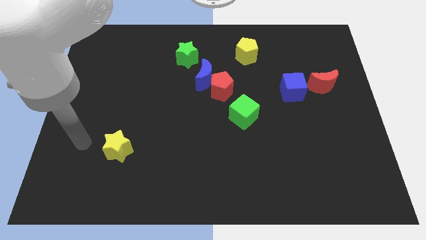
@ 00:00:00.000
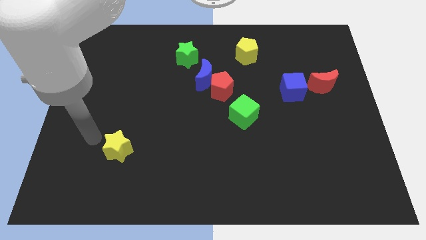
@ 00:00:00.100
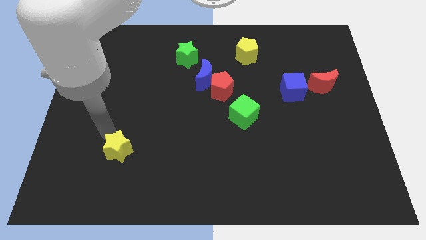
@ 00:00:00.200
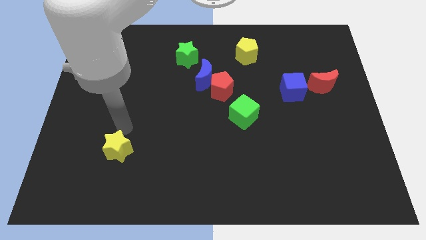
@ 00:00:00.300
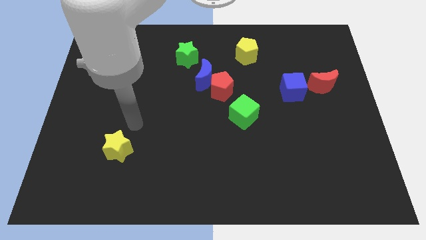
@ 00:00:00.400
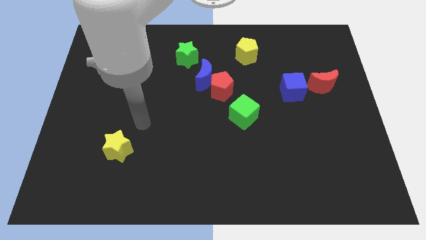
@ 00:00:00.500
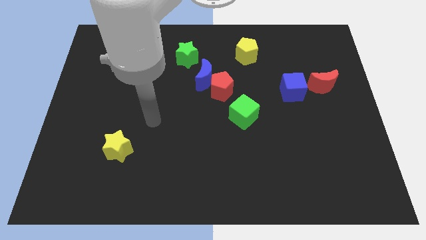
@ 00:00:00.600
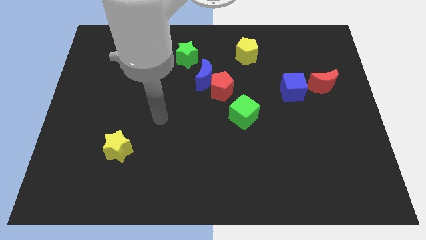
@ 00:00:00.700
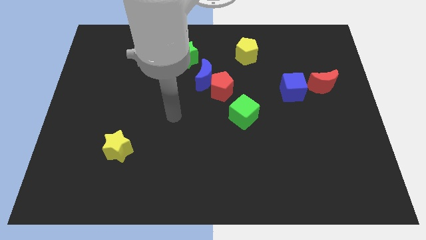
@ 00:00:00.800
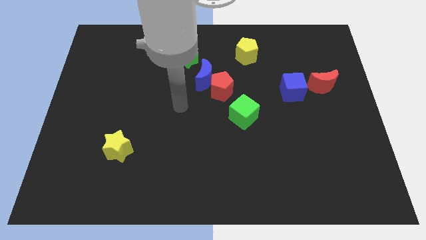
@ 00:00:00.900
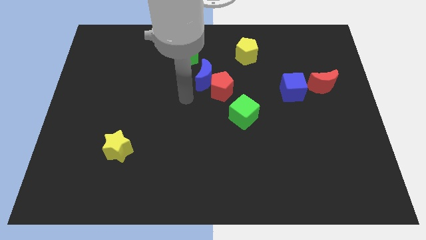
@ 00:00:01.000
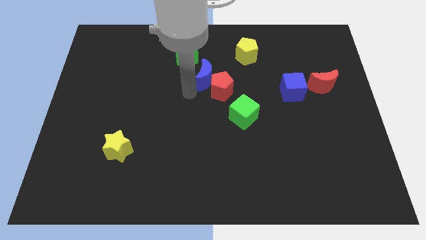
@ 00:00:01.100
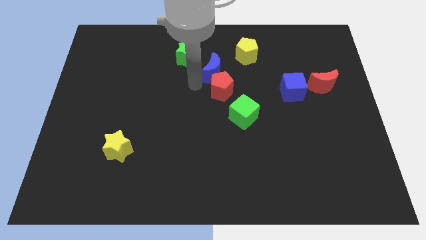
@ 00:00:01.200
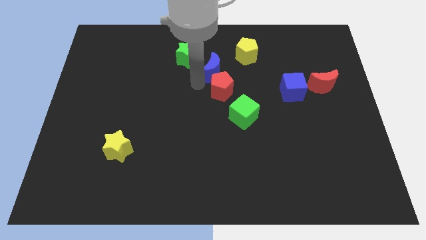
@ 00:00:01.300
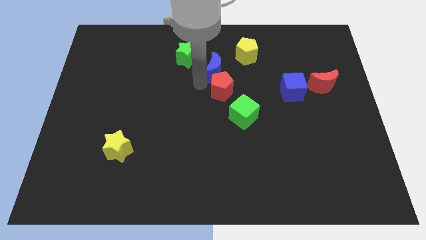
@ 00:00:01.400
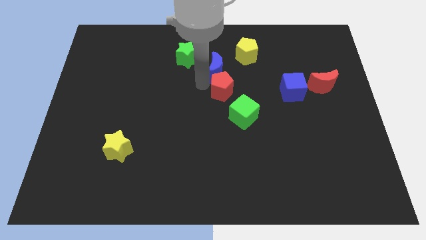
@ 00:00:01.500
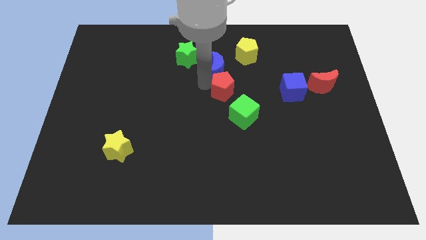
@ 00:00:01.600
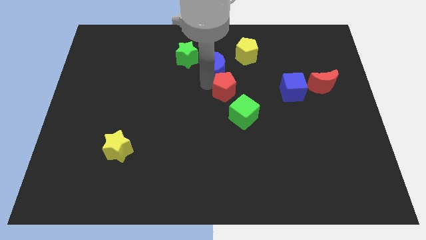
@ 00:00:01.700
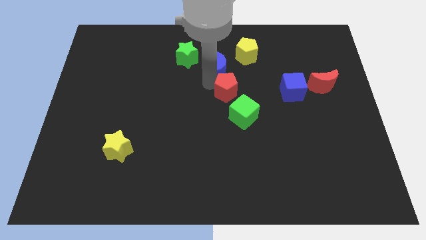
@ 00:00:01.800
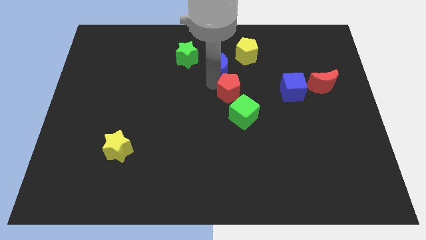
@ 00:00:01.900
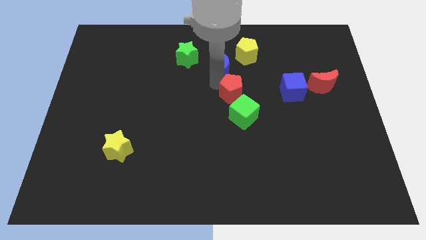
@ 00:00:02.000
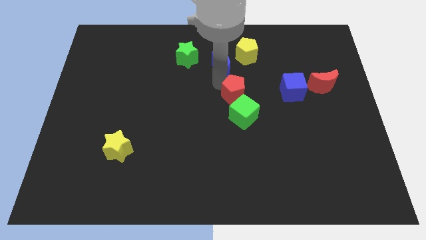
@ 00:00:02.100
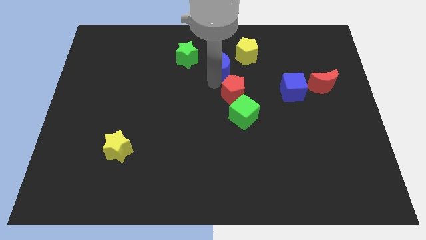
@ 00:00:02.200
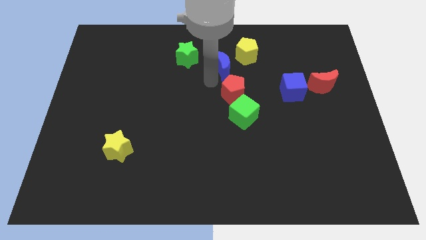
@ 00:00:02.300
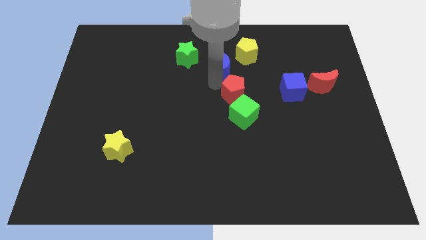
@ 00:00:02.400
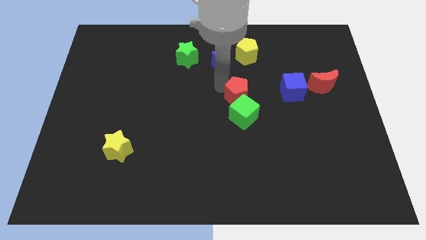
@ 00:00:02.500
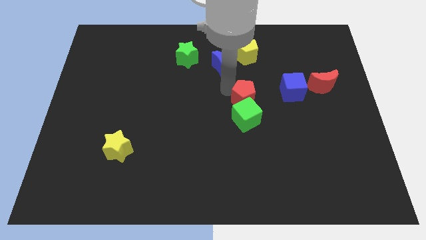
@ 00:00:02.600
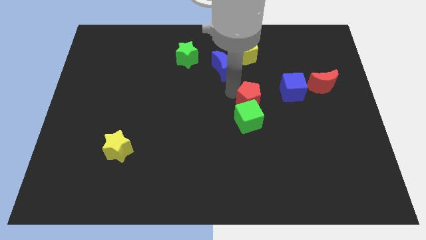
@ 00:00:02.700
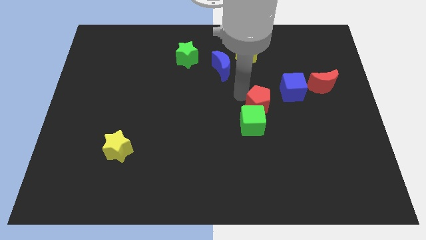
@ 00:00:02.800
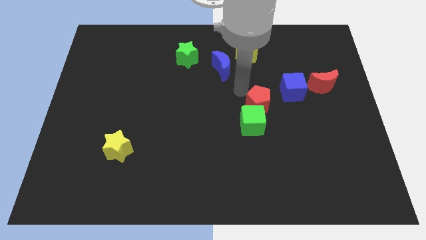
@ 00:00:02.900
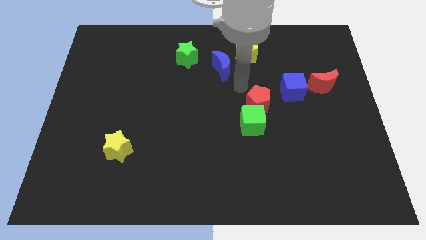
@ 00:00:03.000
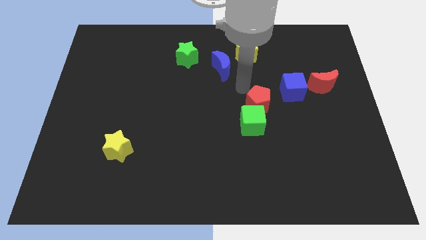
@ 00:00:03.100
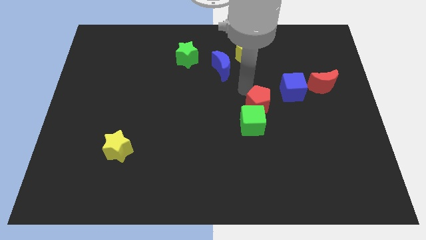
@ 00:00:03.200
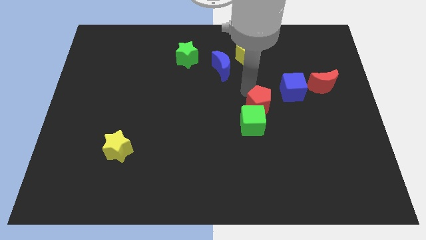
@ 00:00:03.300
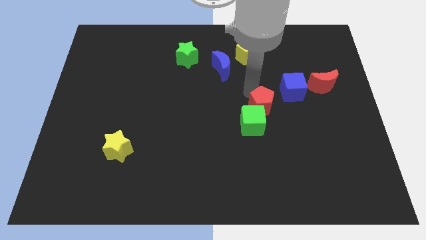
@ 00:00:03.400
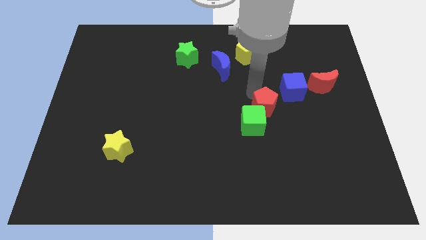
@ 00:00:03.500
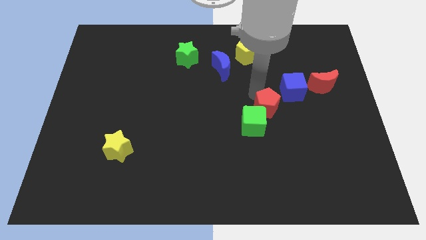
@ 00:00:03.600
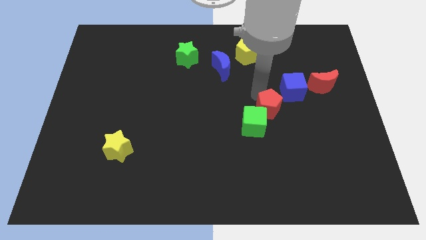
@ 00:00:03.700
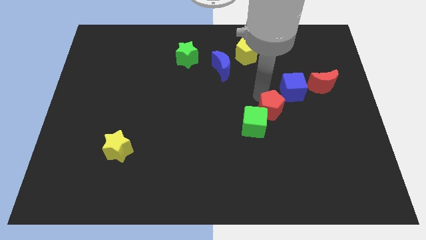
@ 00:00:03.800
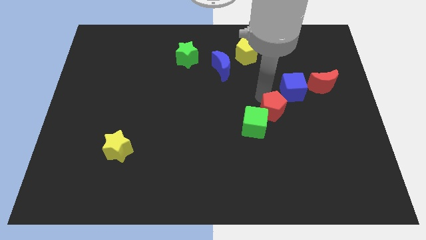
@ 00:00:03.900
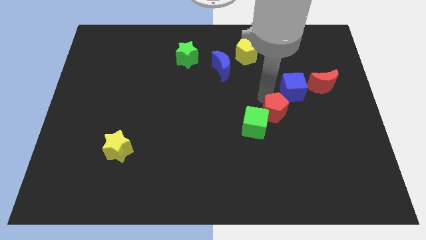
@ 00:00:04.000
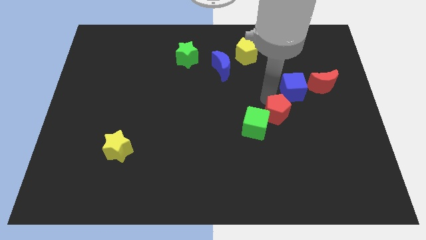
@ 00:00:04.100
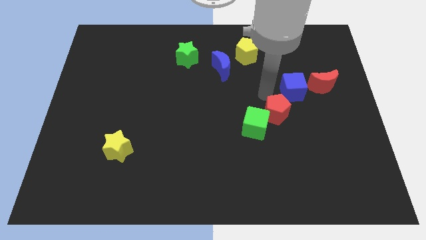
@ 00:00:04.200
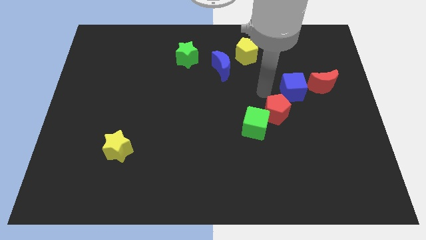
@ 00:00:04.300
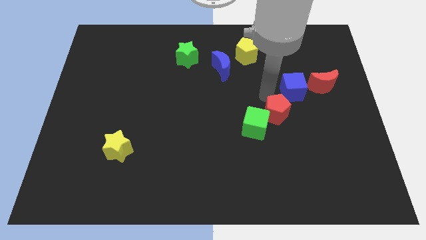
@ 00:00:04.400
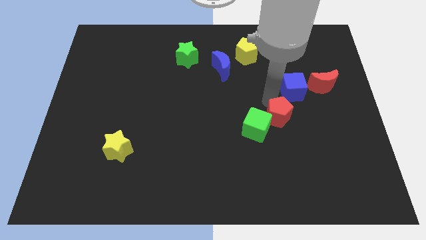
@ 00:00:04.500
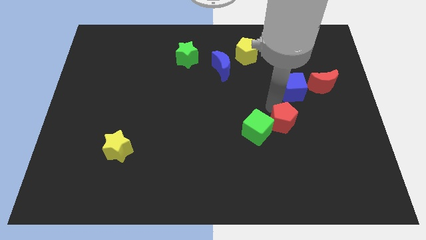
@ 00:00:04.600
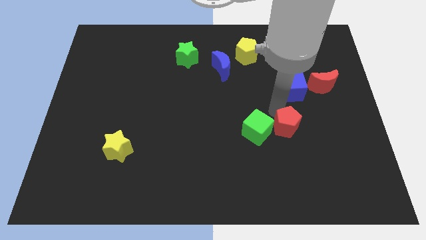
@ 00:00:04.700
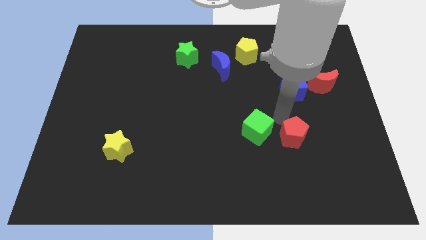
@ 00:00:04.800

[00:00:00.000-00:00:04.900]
slide the red pentagon diagonally downwards and to the right

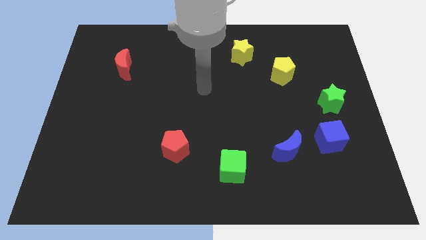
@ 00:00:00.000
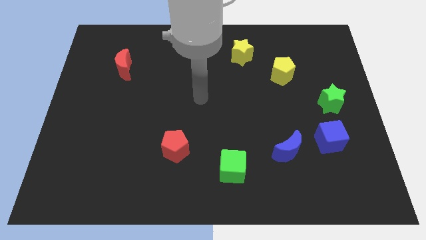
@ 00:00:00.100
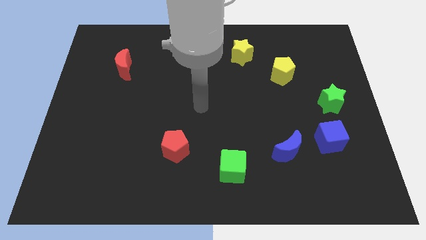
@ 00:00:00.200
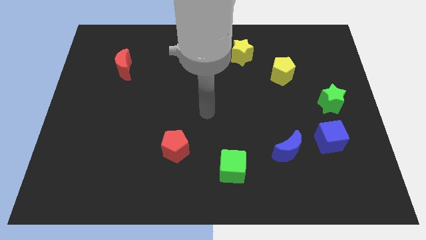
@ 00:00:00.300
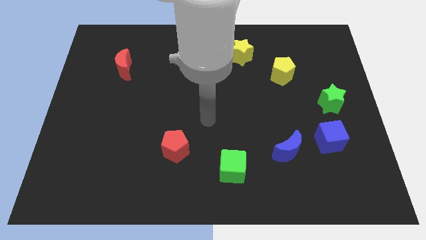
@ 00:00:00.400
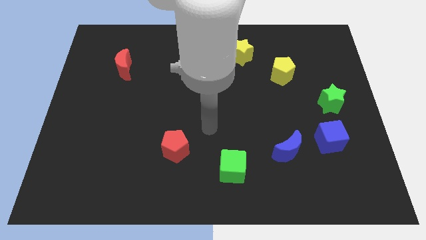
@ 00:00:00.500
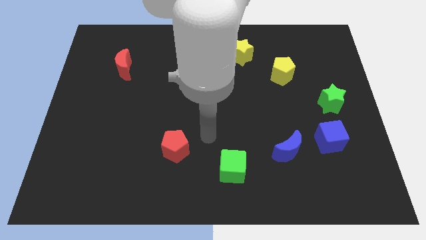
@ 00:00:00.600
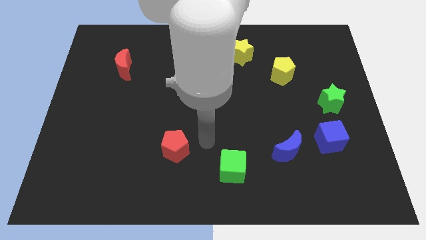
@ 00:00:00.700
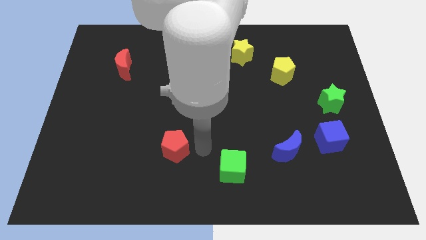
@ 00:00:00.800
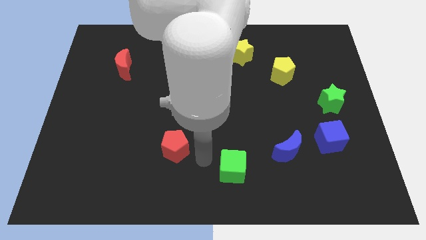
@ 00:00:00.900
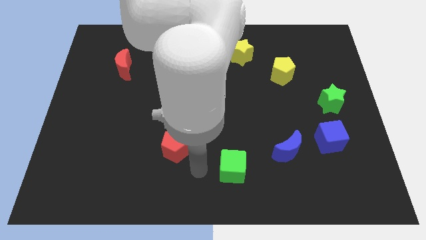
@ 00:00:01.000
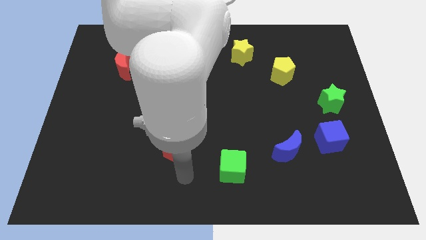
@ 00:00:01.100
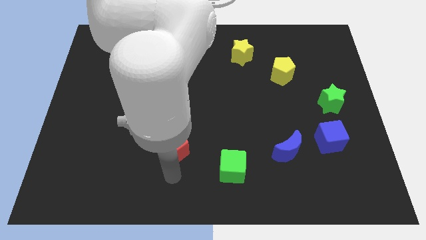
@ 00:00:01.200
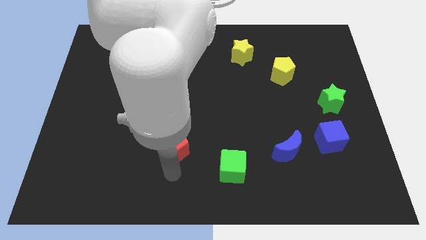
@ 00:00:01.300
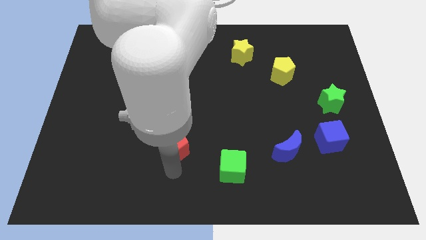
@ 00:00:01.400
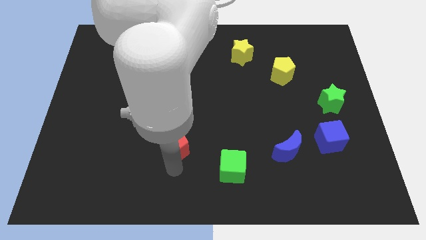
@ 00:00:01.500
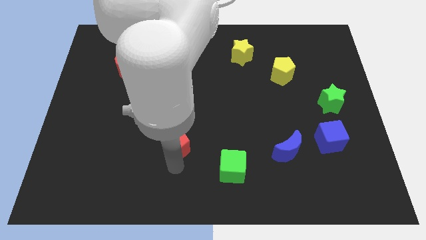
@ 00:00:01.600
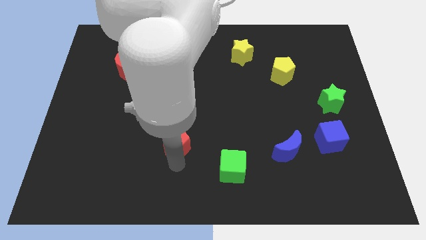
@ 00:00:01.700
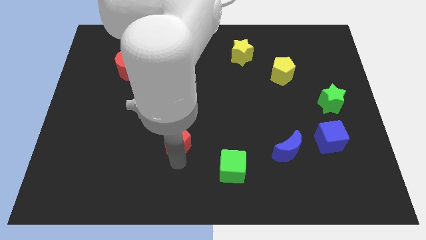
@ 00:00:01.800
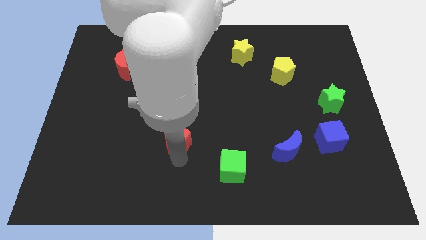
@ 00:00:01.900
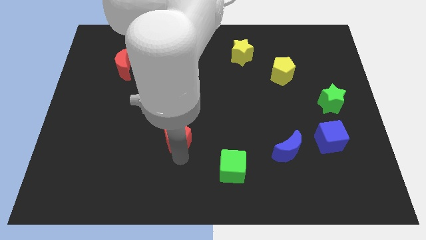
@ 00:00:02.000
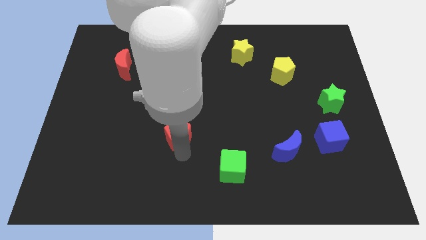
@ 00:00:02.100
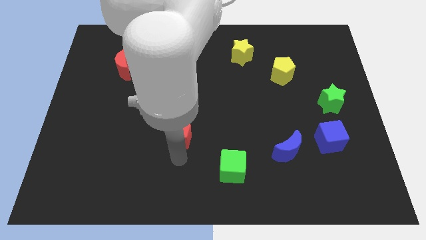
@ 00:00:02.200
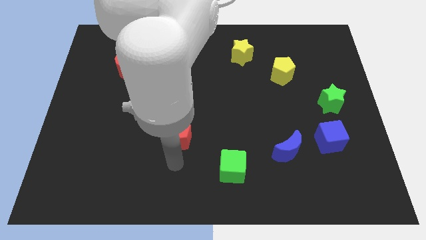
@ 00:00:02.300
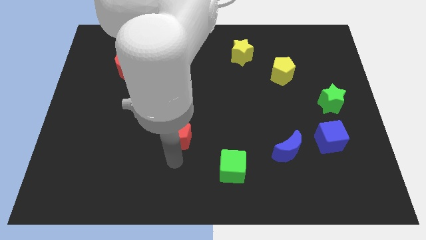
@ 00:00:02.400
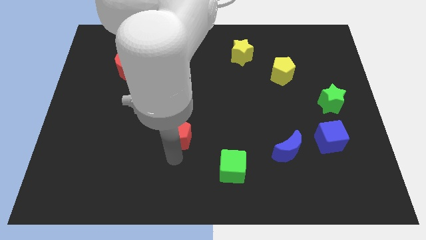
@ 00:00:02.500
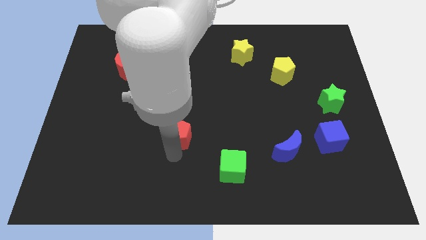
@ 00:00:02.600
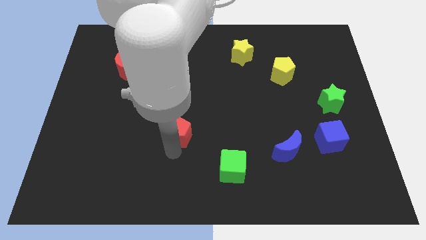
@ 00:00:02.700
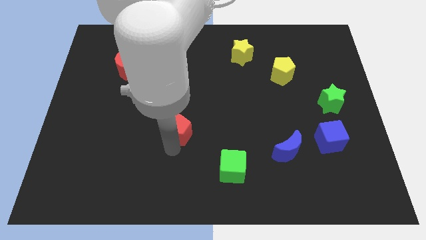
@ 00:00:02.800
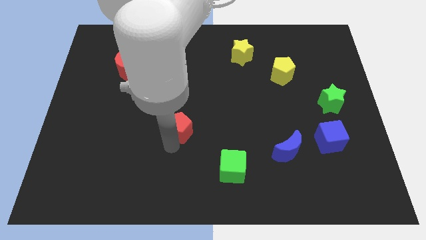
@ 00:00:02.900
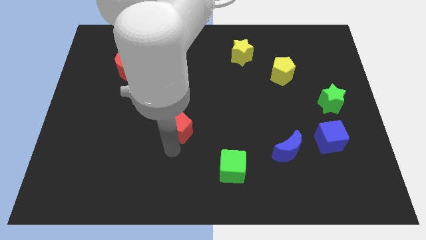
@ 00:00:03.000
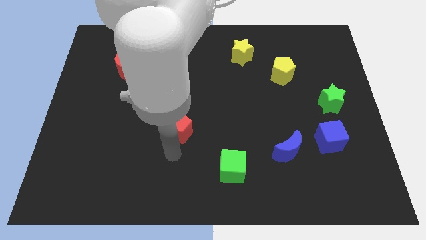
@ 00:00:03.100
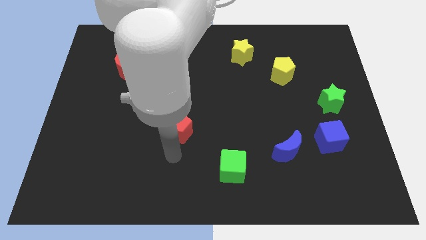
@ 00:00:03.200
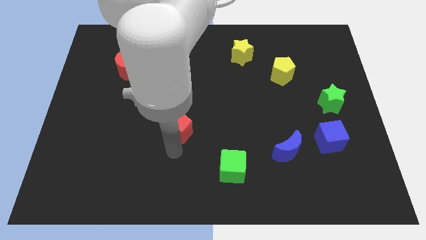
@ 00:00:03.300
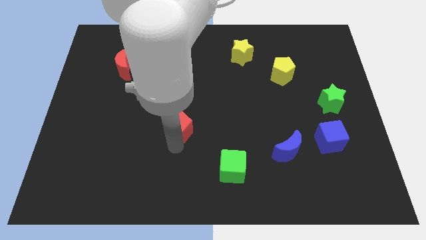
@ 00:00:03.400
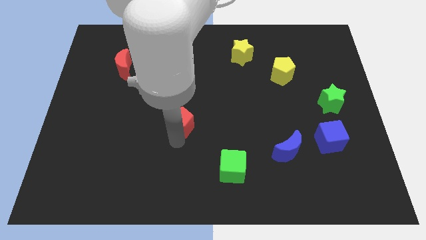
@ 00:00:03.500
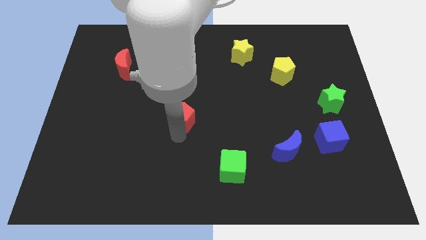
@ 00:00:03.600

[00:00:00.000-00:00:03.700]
slightly slide the red pentagon up
